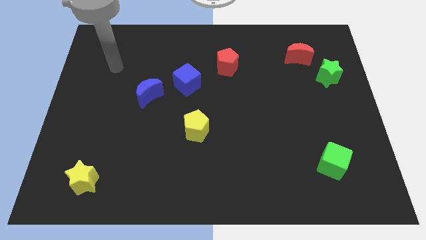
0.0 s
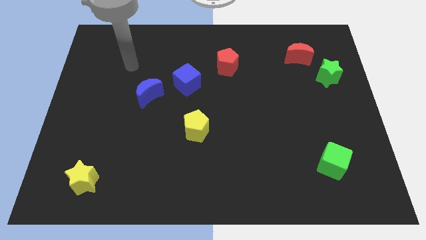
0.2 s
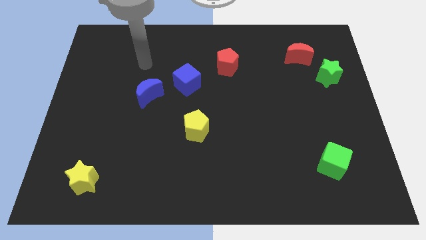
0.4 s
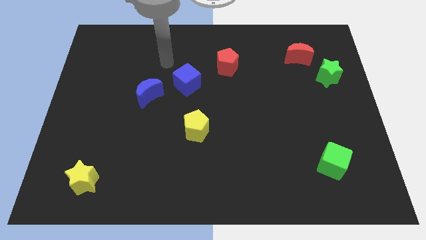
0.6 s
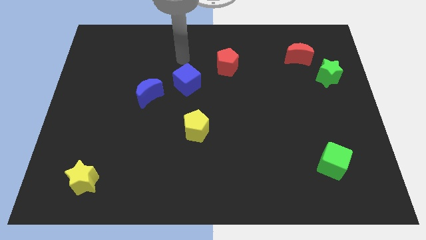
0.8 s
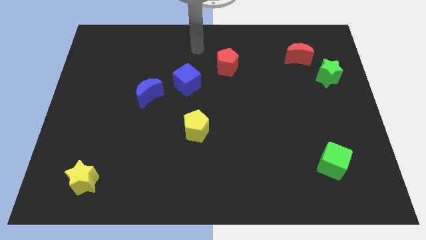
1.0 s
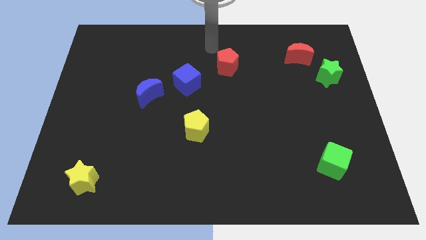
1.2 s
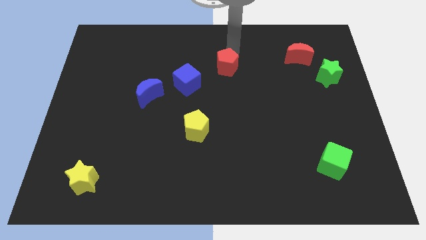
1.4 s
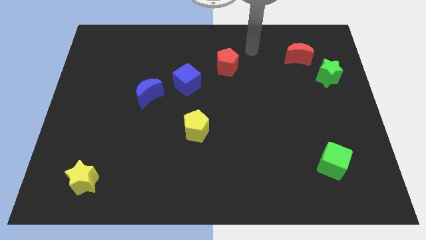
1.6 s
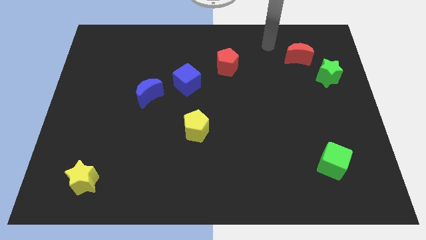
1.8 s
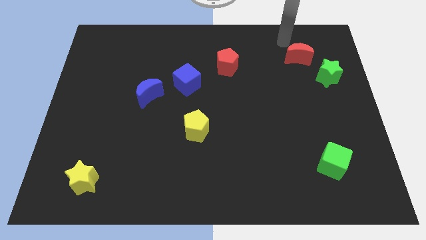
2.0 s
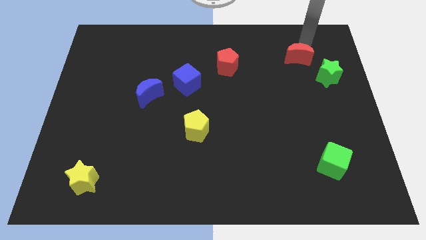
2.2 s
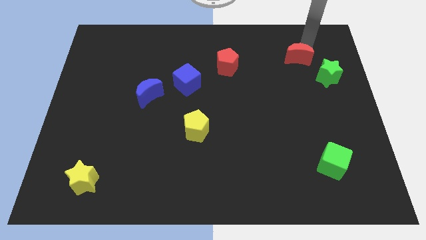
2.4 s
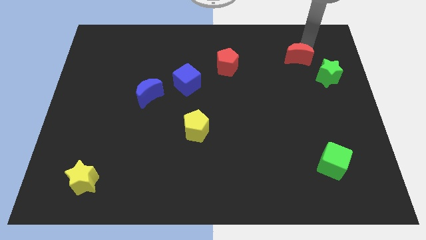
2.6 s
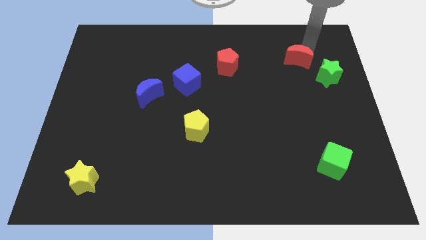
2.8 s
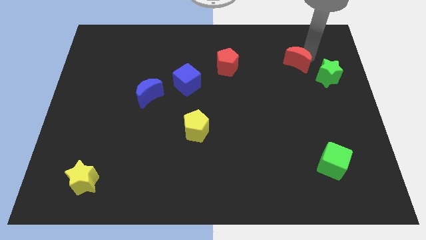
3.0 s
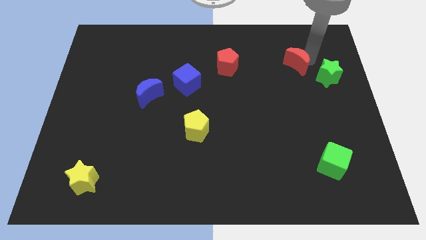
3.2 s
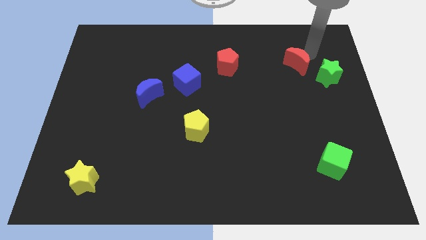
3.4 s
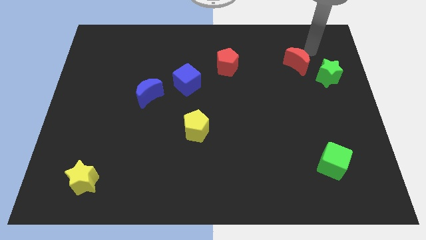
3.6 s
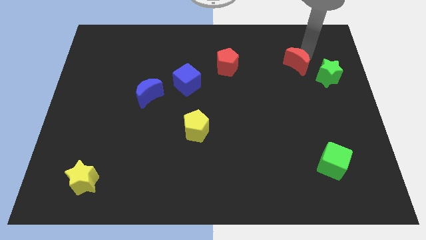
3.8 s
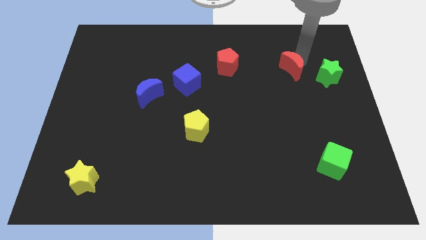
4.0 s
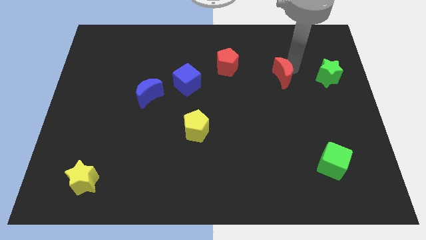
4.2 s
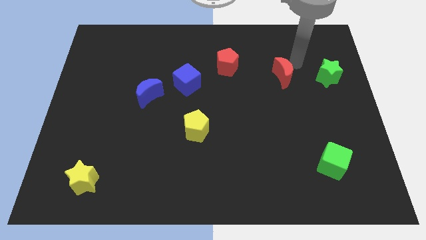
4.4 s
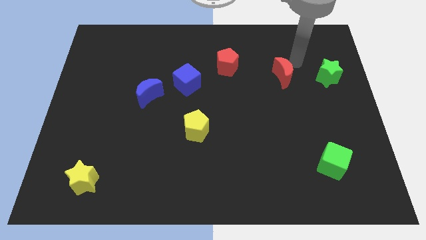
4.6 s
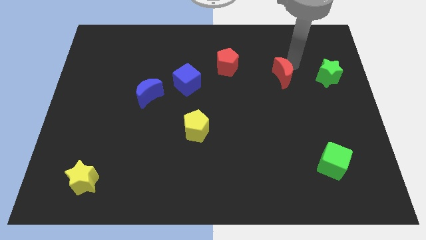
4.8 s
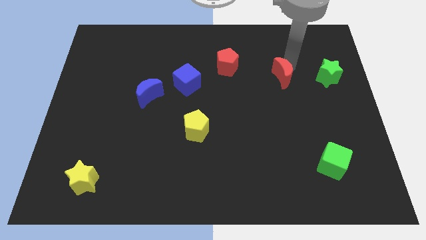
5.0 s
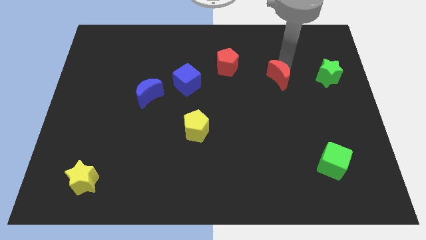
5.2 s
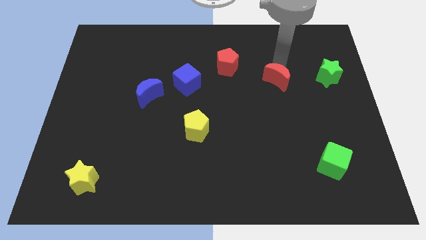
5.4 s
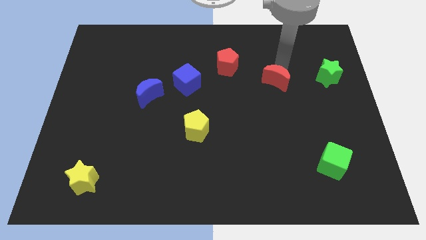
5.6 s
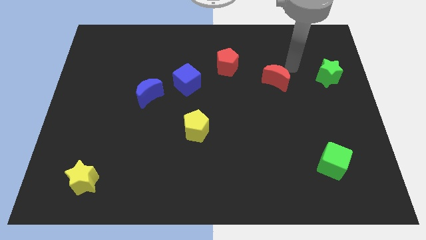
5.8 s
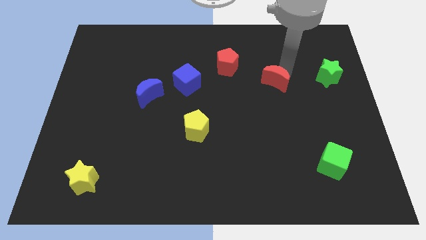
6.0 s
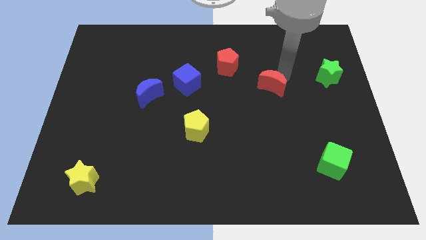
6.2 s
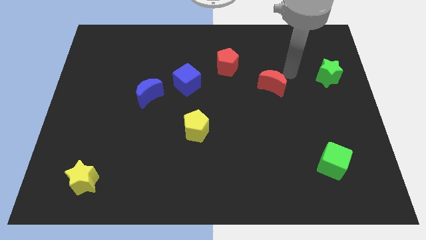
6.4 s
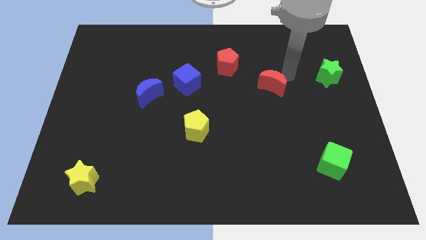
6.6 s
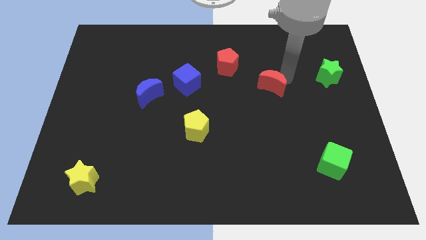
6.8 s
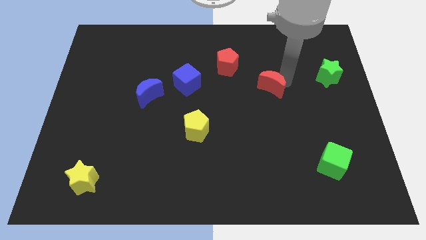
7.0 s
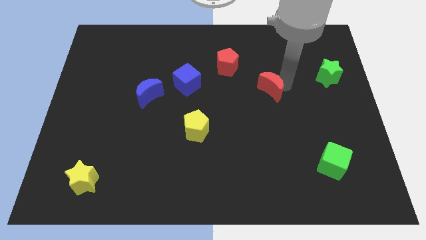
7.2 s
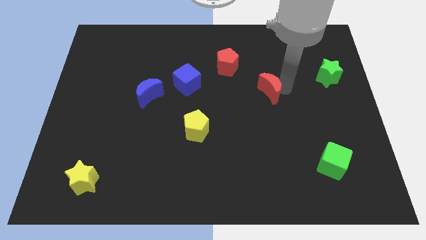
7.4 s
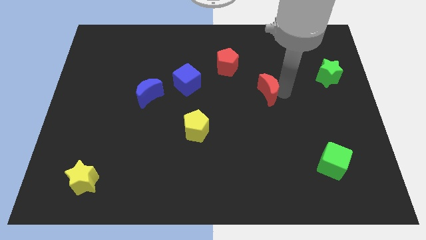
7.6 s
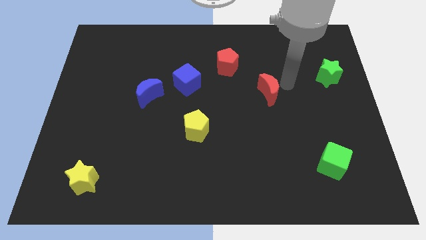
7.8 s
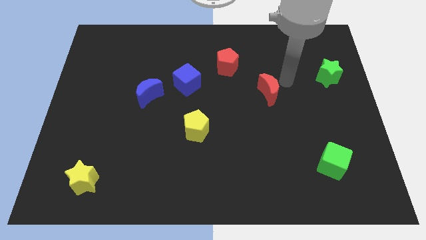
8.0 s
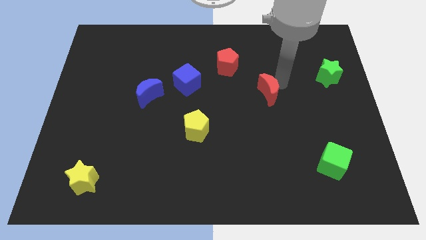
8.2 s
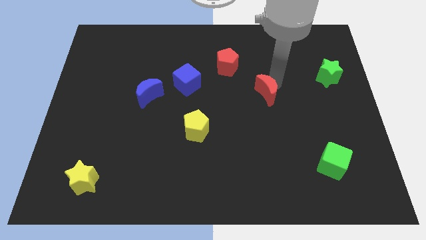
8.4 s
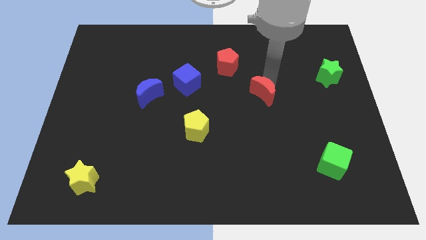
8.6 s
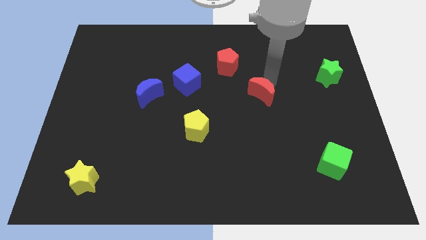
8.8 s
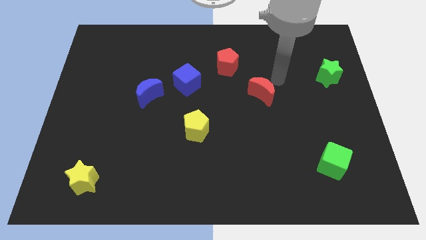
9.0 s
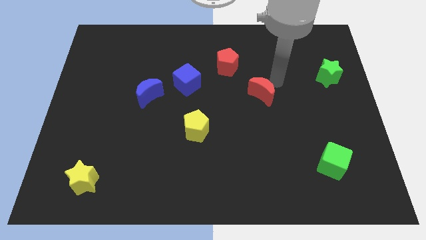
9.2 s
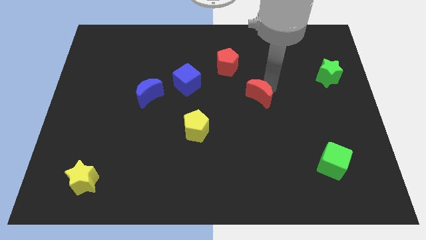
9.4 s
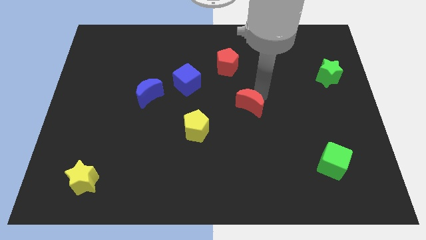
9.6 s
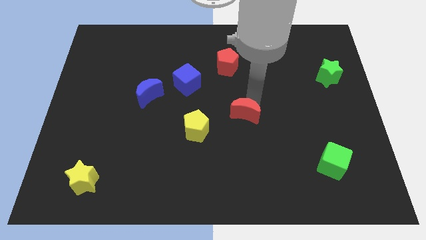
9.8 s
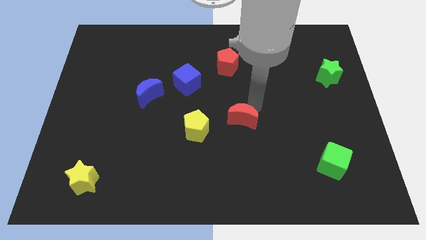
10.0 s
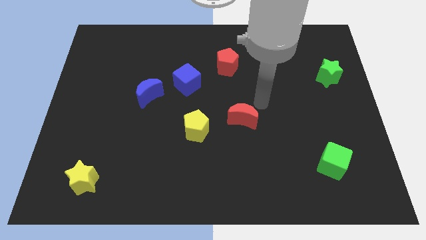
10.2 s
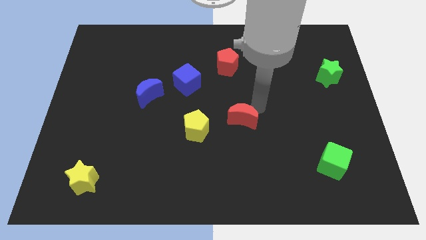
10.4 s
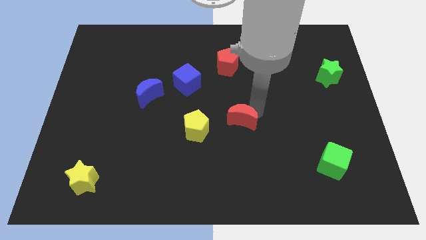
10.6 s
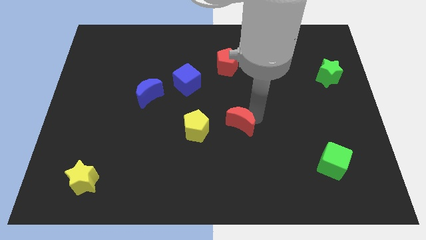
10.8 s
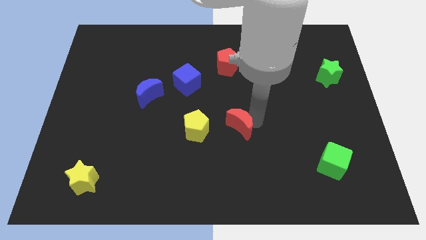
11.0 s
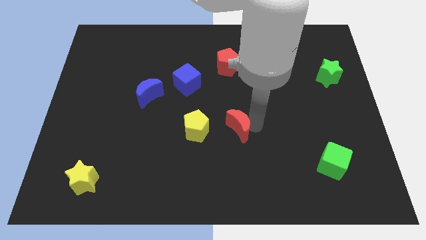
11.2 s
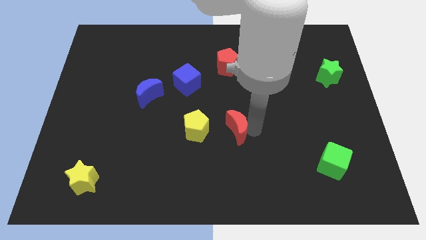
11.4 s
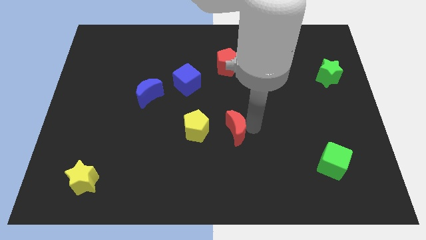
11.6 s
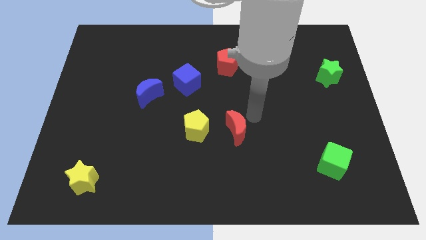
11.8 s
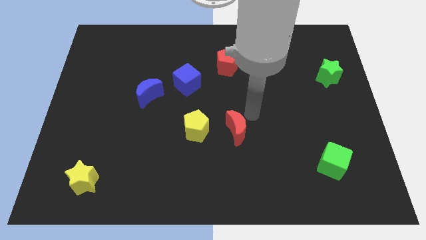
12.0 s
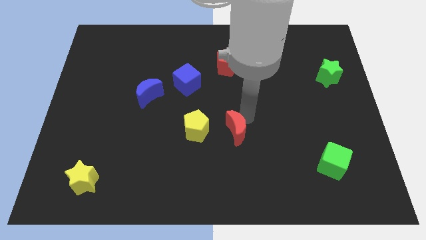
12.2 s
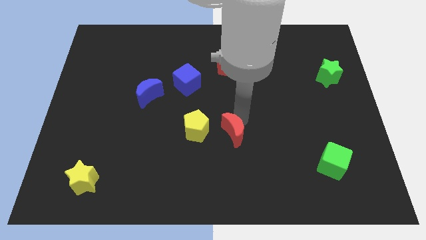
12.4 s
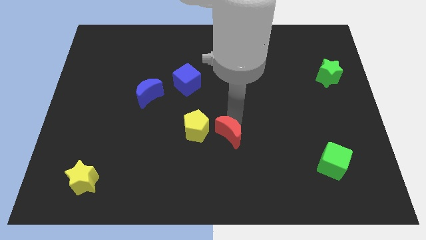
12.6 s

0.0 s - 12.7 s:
slide the red moon diagonally down and to the right of the yellow pentagon

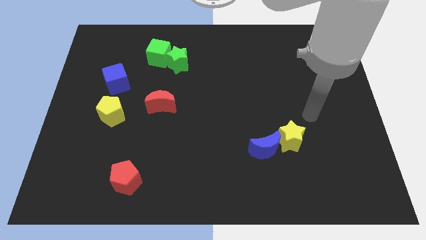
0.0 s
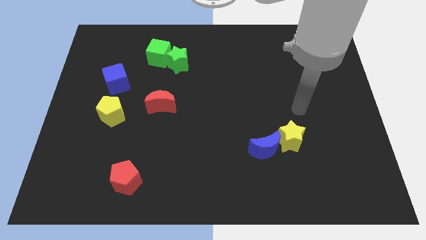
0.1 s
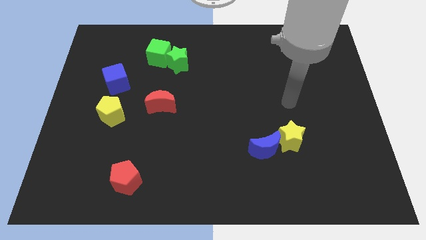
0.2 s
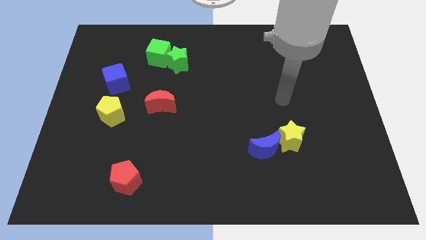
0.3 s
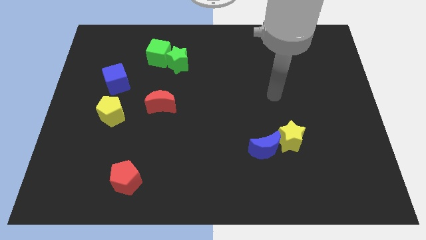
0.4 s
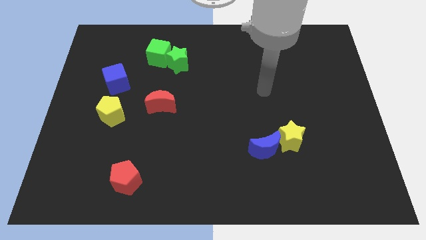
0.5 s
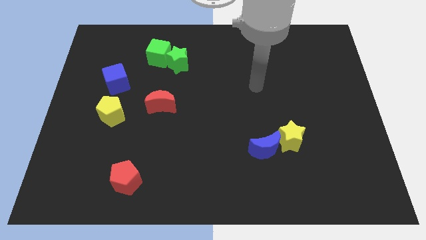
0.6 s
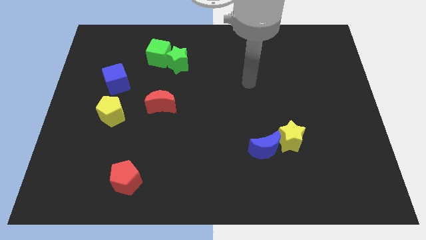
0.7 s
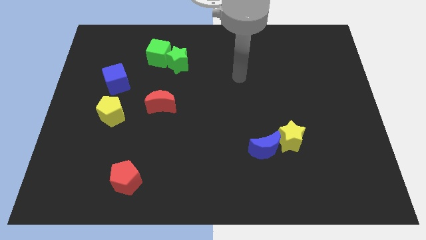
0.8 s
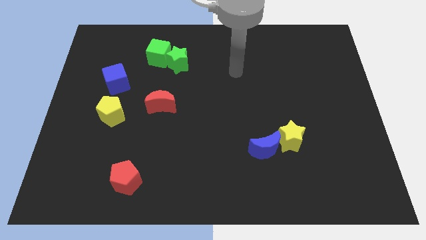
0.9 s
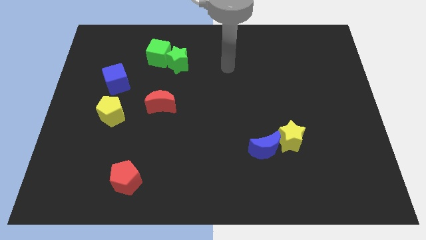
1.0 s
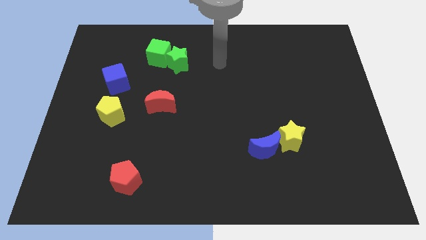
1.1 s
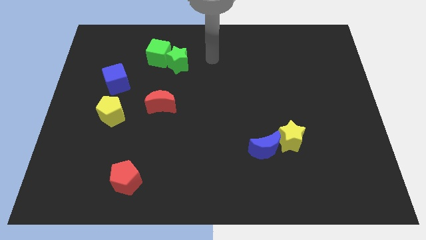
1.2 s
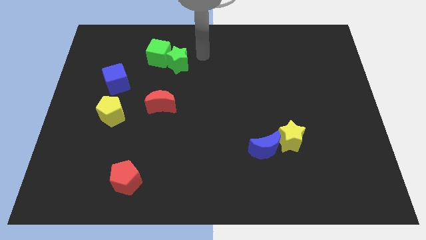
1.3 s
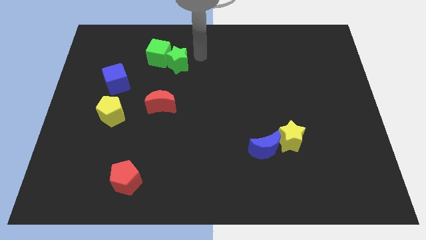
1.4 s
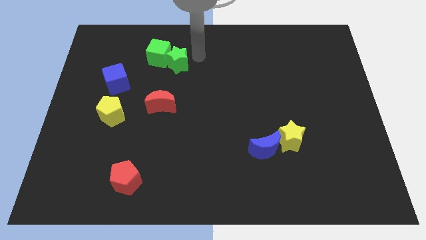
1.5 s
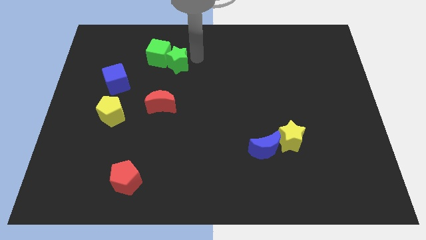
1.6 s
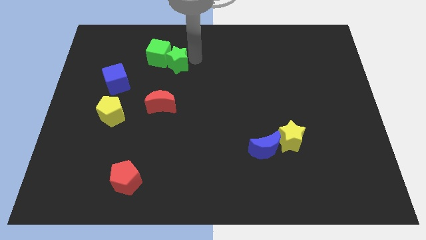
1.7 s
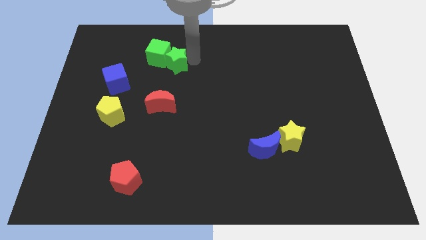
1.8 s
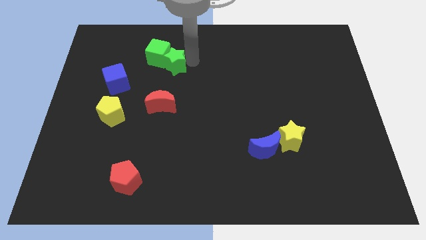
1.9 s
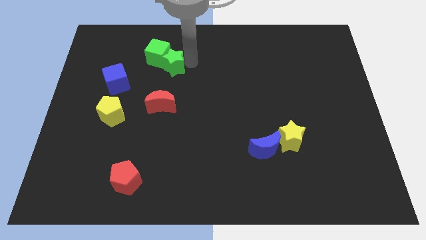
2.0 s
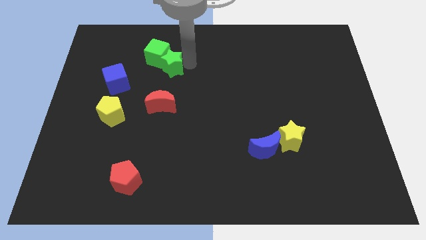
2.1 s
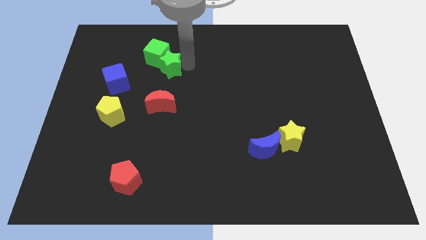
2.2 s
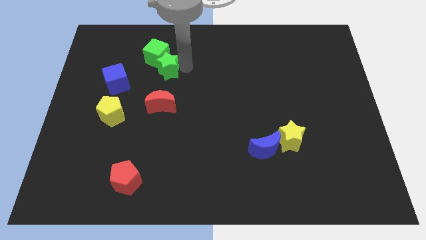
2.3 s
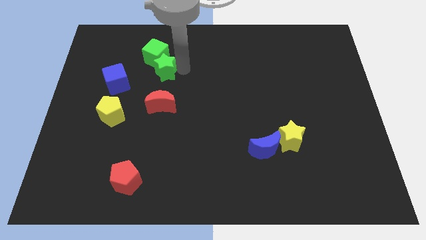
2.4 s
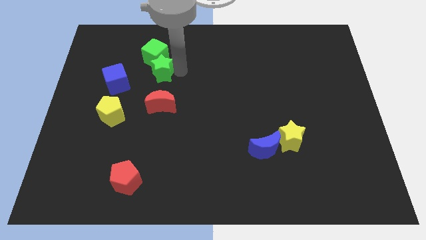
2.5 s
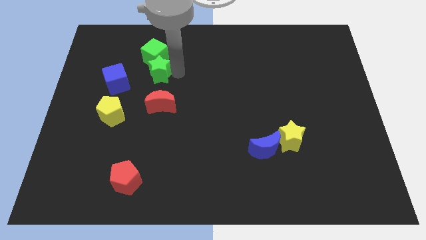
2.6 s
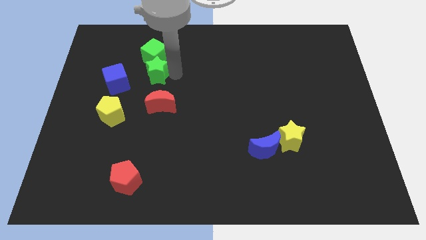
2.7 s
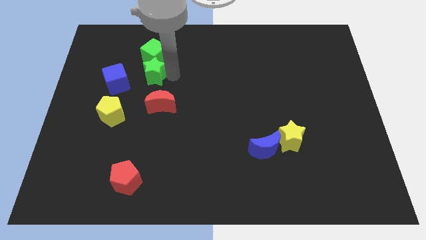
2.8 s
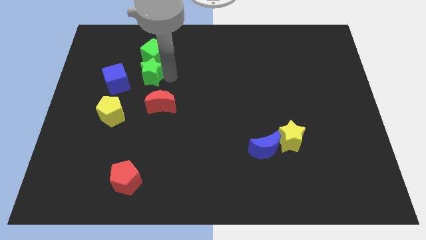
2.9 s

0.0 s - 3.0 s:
slide the green star diagonally down and to the left of the green cube
